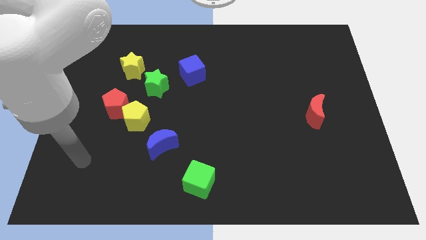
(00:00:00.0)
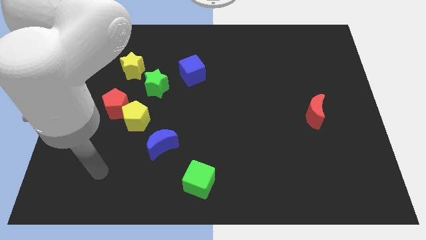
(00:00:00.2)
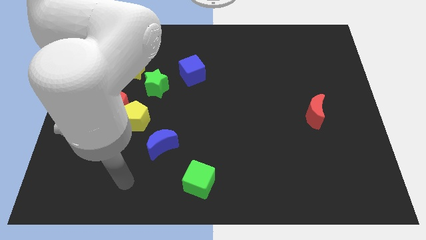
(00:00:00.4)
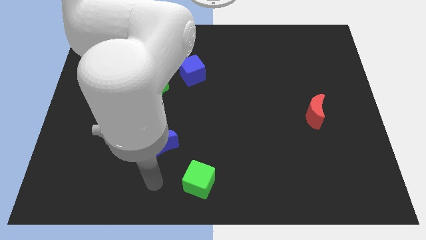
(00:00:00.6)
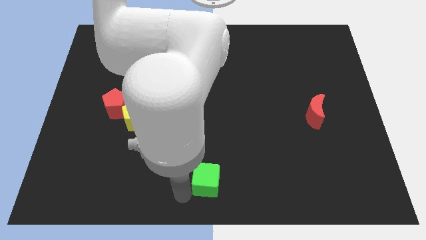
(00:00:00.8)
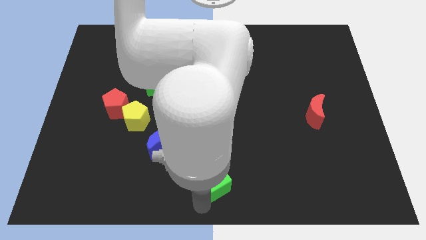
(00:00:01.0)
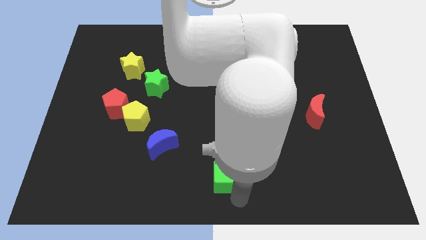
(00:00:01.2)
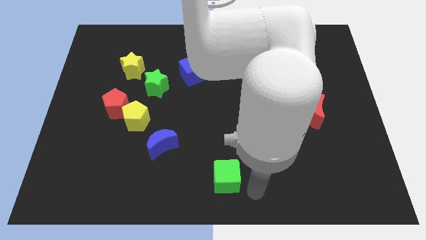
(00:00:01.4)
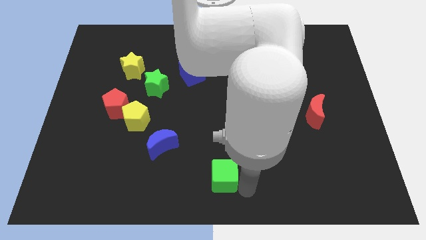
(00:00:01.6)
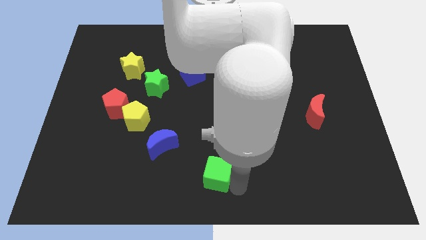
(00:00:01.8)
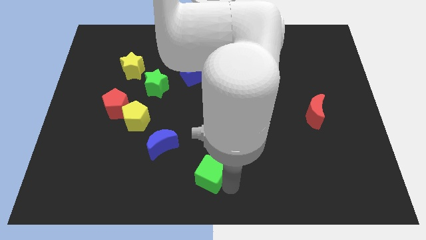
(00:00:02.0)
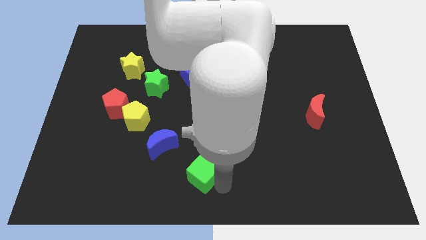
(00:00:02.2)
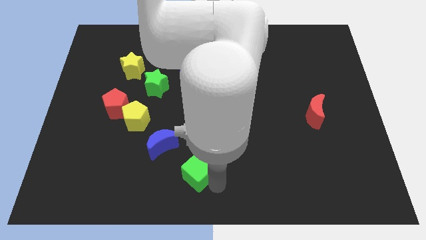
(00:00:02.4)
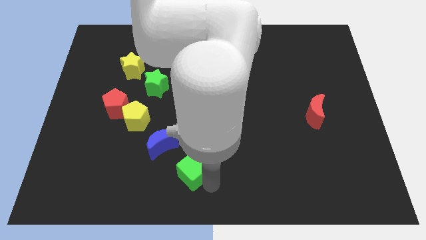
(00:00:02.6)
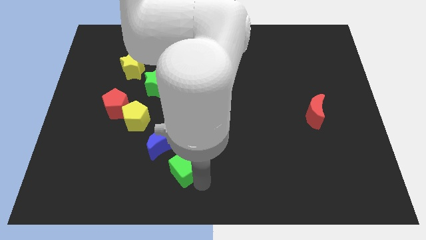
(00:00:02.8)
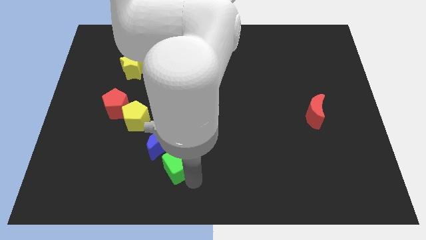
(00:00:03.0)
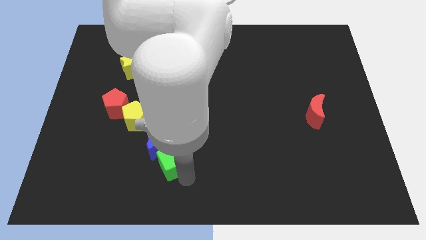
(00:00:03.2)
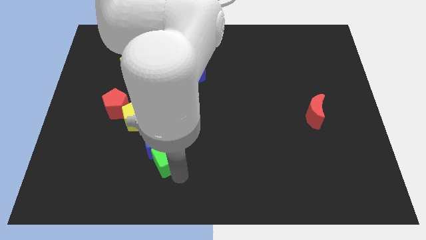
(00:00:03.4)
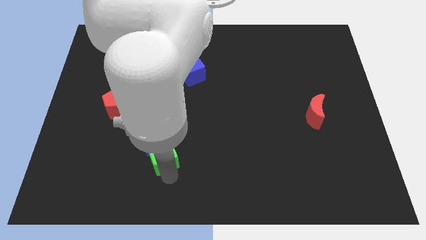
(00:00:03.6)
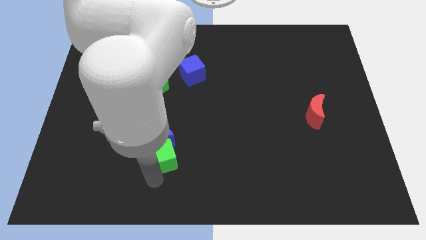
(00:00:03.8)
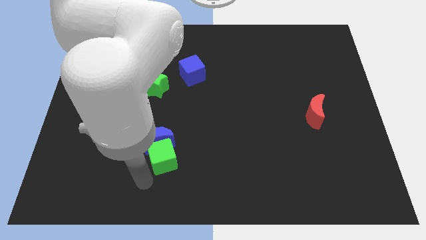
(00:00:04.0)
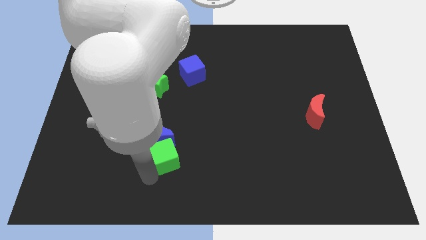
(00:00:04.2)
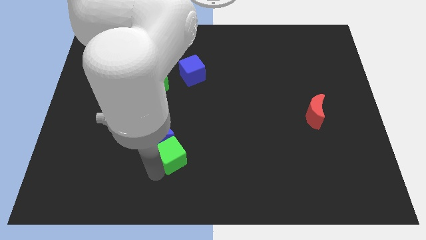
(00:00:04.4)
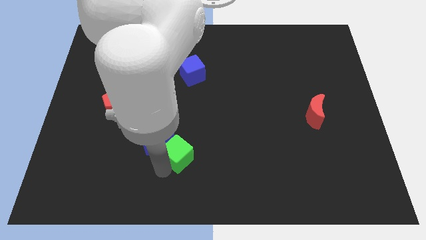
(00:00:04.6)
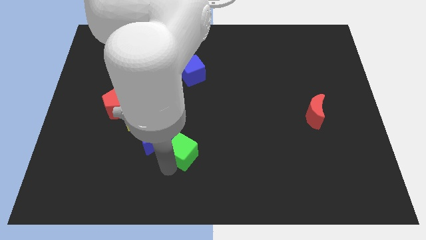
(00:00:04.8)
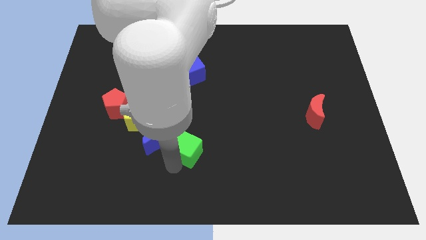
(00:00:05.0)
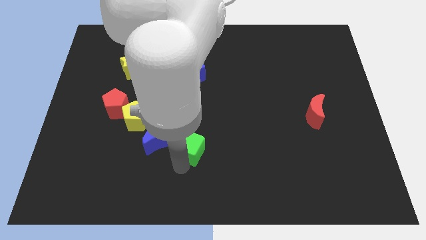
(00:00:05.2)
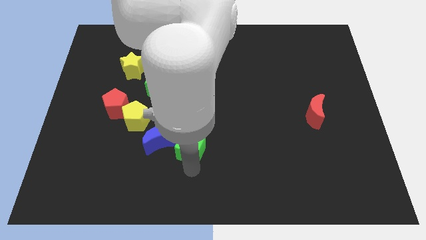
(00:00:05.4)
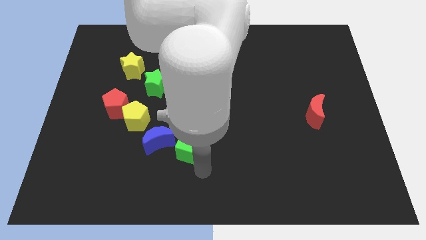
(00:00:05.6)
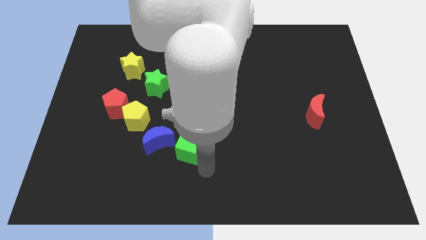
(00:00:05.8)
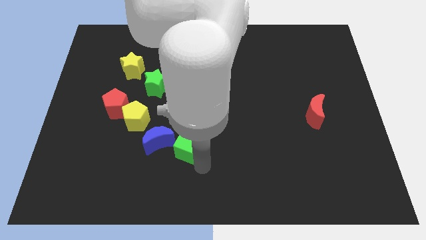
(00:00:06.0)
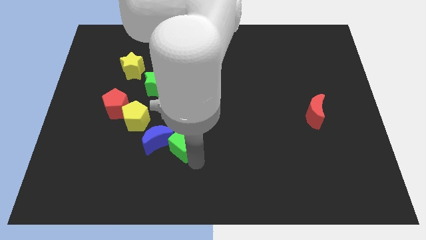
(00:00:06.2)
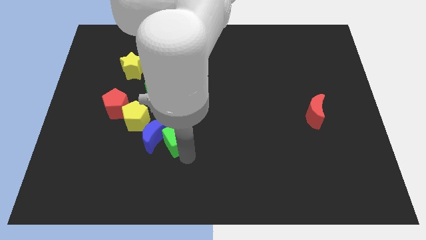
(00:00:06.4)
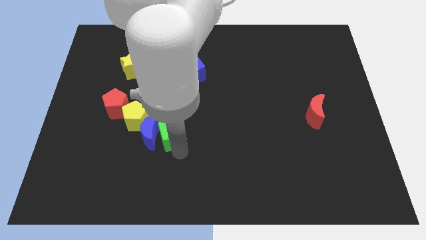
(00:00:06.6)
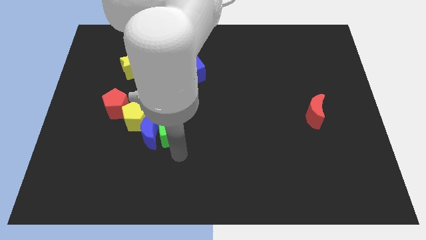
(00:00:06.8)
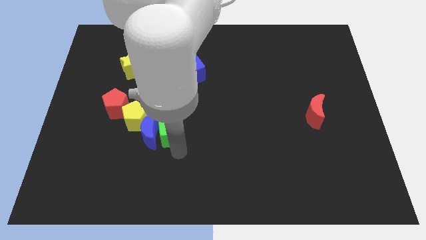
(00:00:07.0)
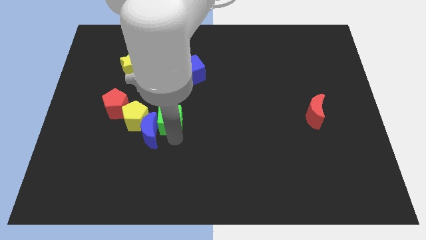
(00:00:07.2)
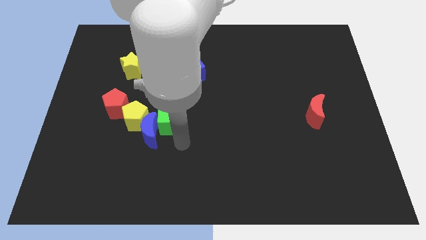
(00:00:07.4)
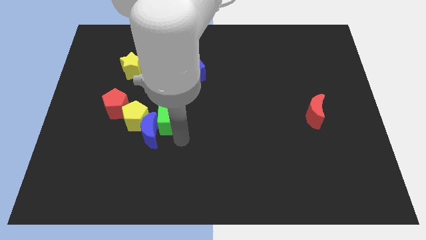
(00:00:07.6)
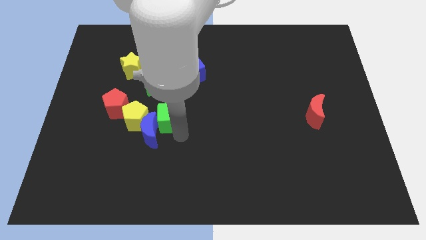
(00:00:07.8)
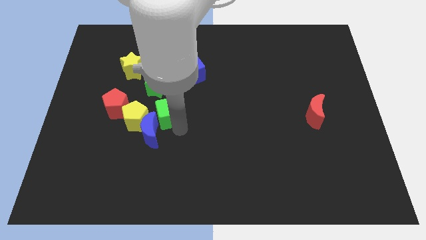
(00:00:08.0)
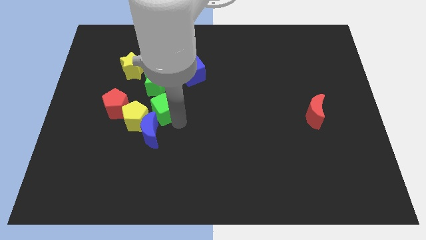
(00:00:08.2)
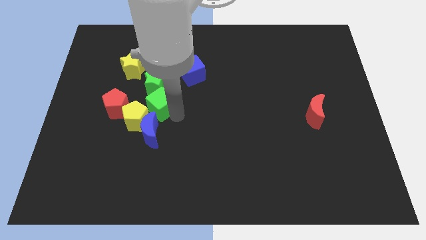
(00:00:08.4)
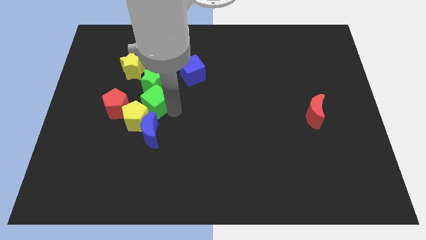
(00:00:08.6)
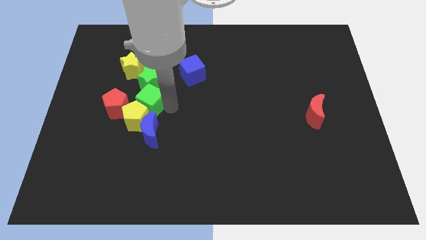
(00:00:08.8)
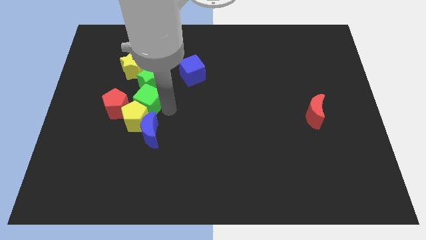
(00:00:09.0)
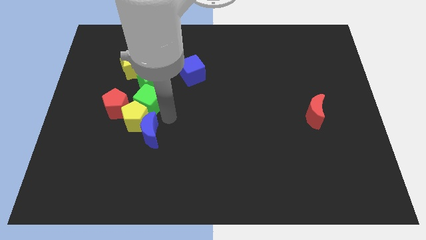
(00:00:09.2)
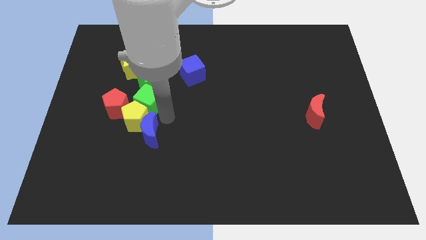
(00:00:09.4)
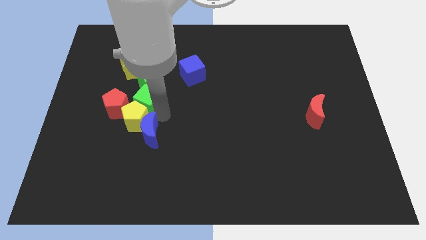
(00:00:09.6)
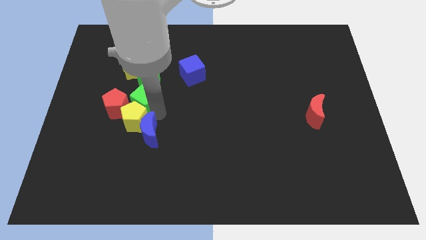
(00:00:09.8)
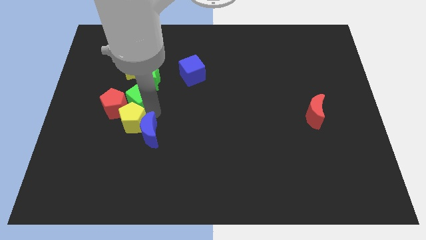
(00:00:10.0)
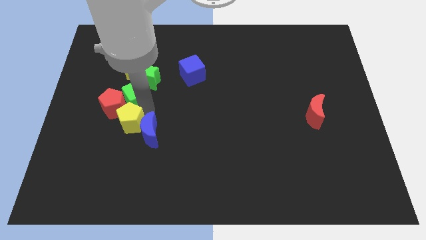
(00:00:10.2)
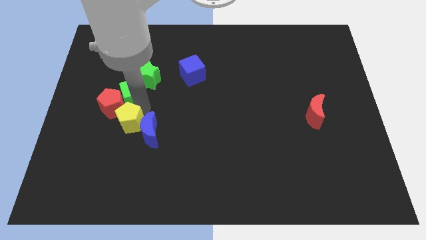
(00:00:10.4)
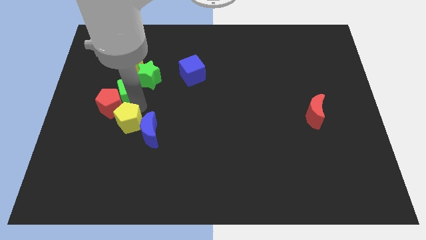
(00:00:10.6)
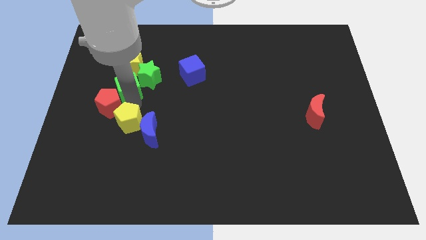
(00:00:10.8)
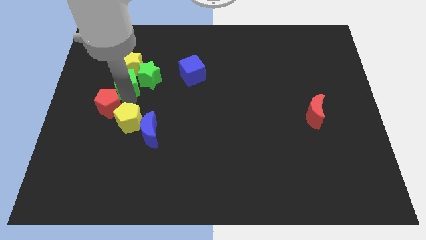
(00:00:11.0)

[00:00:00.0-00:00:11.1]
slide the green cube next to the yellow star

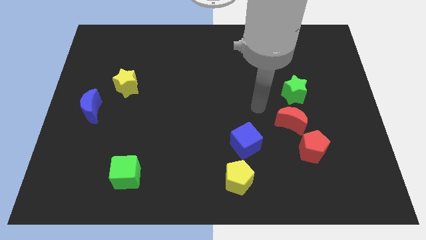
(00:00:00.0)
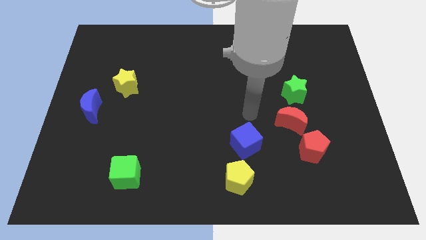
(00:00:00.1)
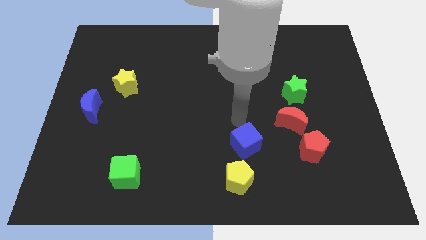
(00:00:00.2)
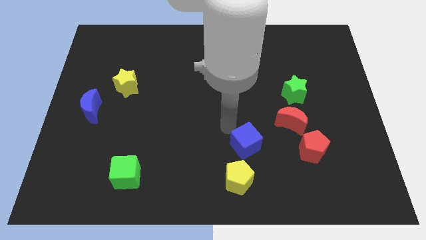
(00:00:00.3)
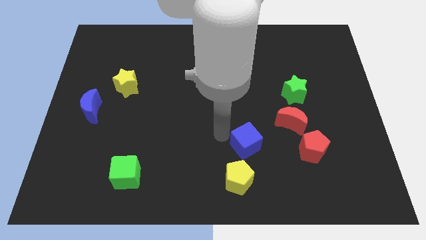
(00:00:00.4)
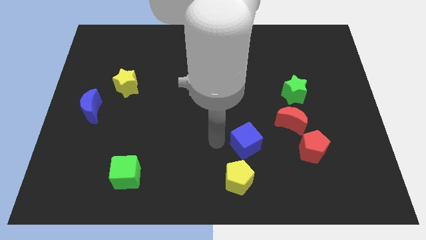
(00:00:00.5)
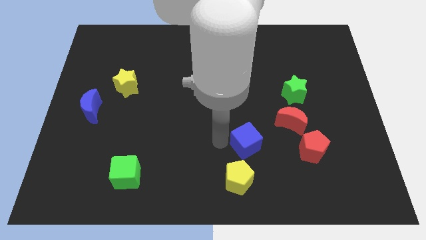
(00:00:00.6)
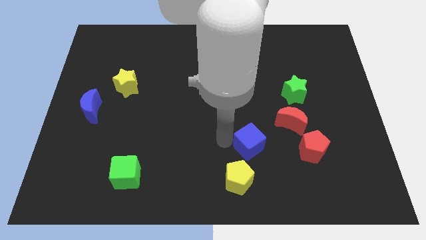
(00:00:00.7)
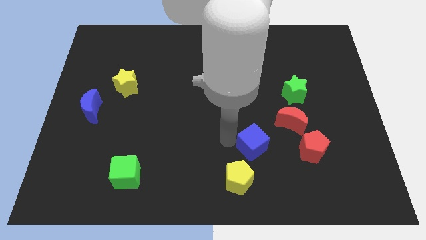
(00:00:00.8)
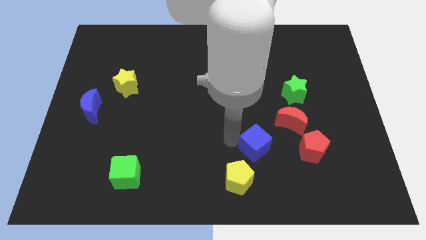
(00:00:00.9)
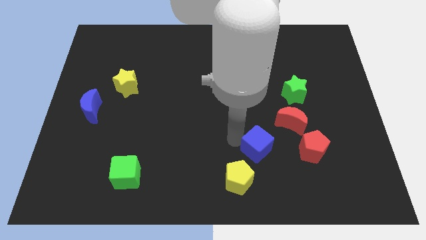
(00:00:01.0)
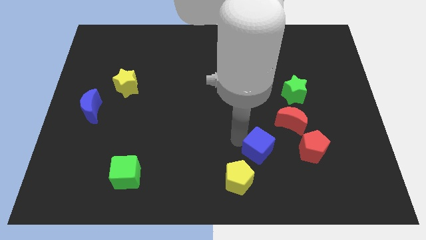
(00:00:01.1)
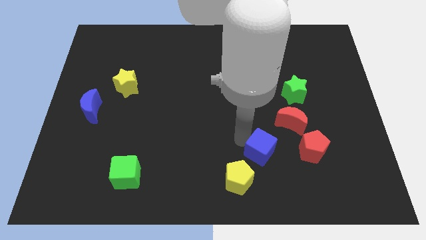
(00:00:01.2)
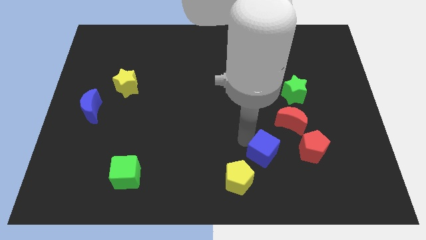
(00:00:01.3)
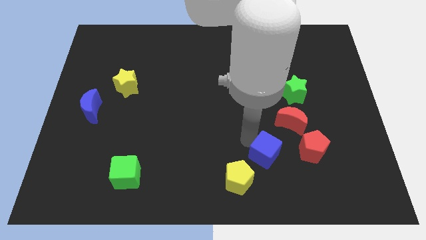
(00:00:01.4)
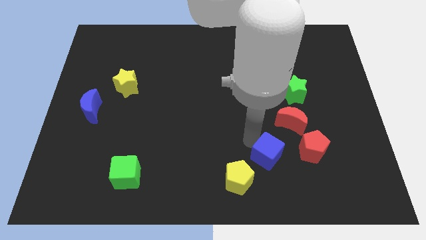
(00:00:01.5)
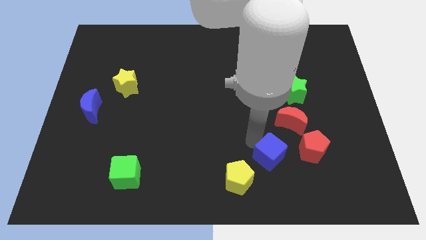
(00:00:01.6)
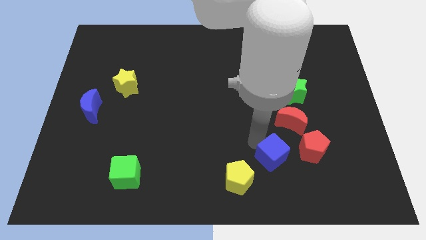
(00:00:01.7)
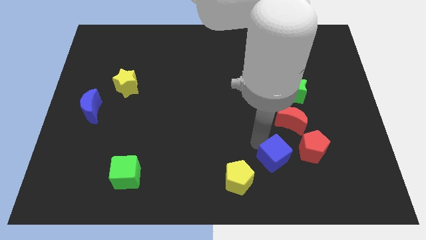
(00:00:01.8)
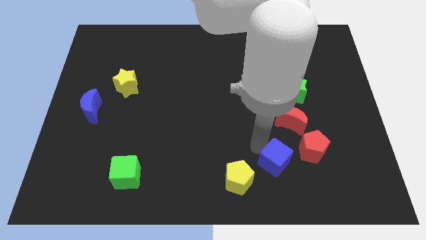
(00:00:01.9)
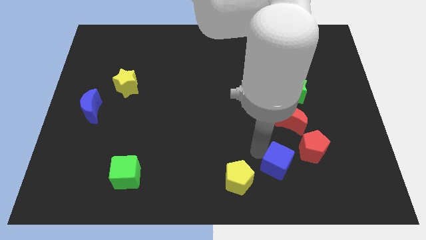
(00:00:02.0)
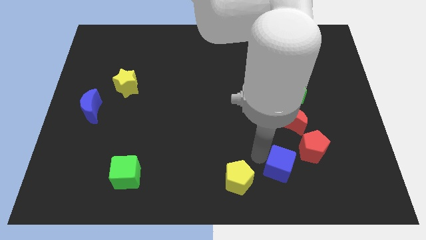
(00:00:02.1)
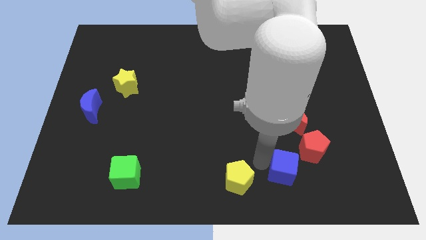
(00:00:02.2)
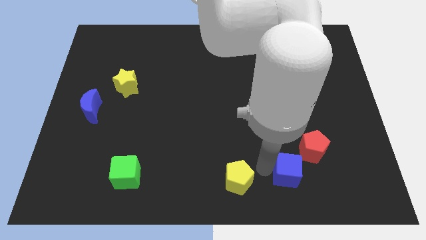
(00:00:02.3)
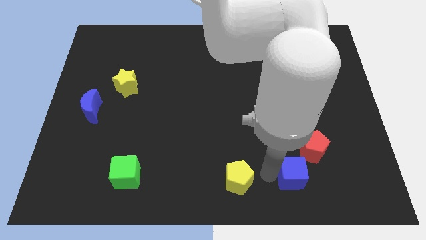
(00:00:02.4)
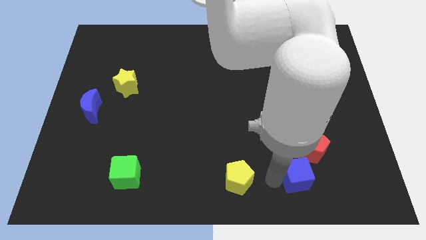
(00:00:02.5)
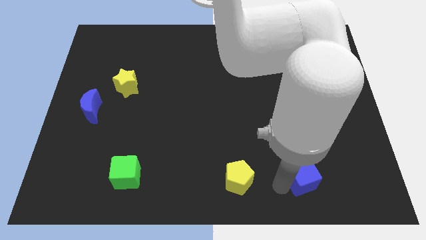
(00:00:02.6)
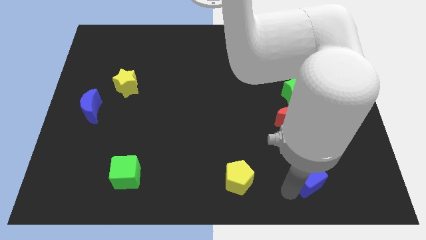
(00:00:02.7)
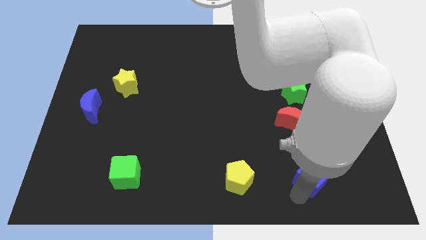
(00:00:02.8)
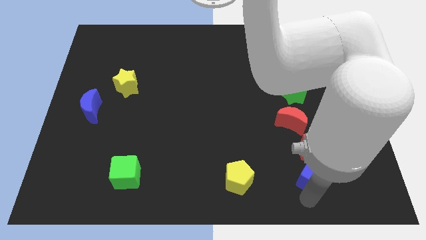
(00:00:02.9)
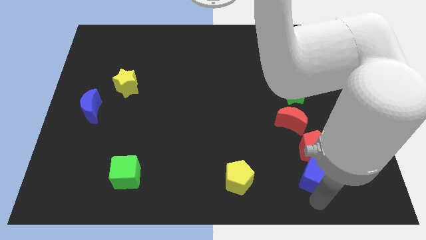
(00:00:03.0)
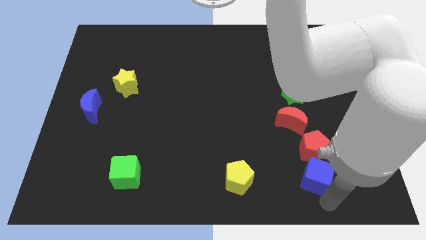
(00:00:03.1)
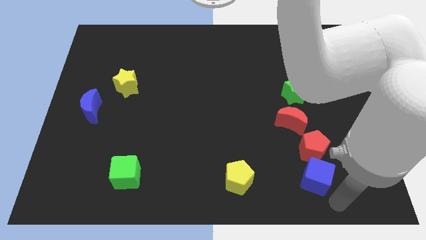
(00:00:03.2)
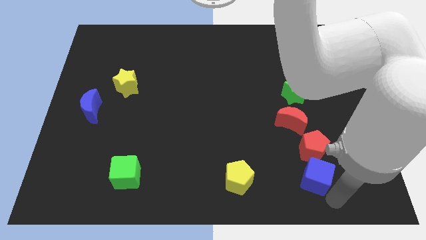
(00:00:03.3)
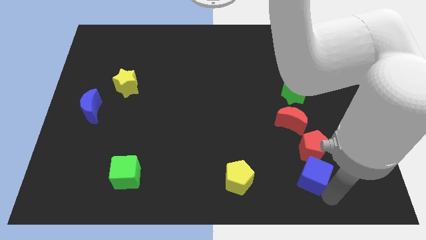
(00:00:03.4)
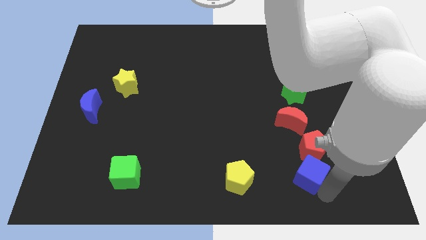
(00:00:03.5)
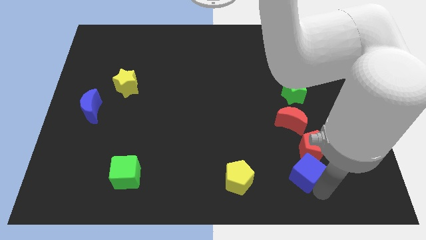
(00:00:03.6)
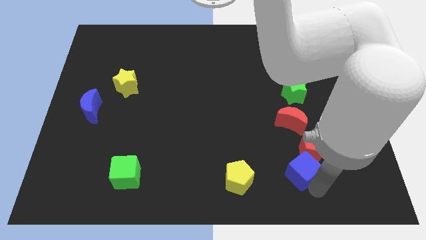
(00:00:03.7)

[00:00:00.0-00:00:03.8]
put the blue cube next to the red pentagon
